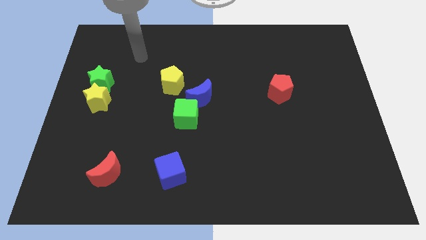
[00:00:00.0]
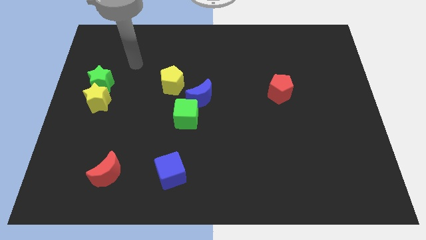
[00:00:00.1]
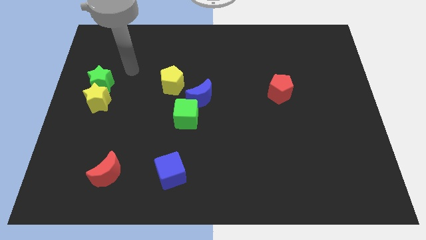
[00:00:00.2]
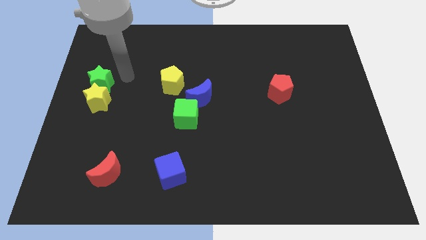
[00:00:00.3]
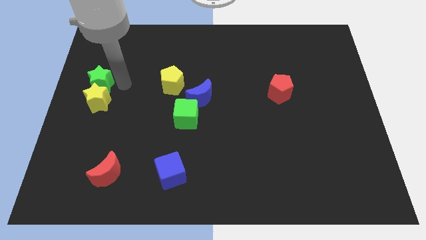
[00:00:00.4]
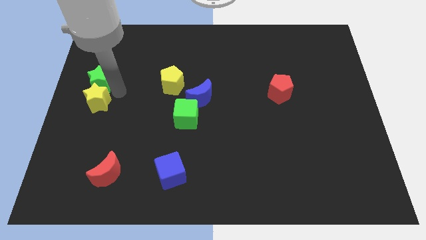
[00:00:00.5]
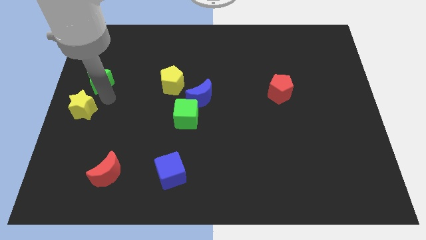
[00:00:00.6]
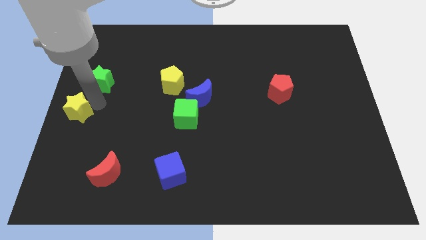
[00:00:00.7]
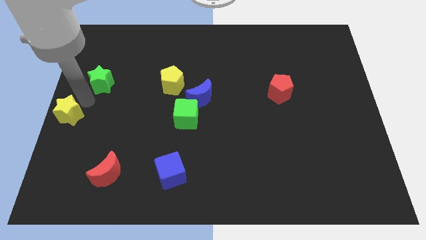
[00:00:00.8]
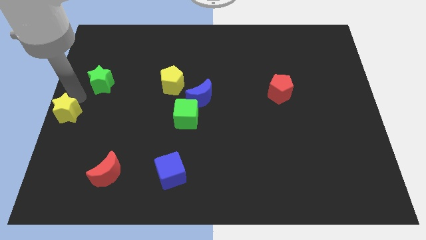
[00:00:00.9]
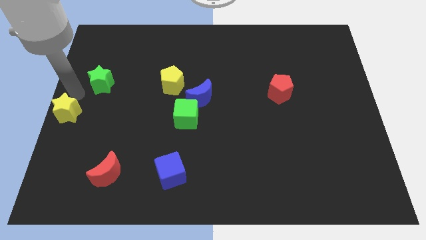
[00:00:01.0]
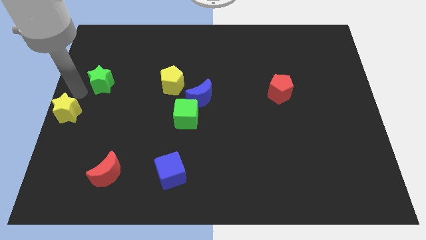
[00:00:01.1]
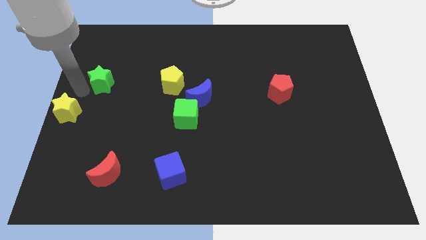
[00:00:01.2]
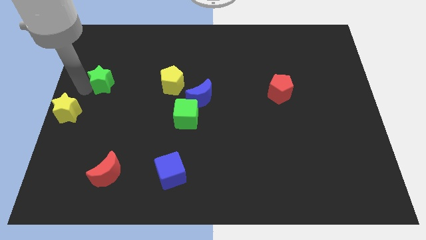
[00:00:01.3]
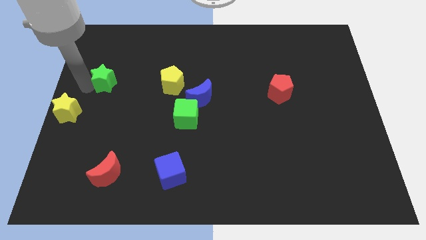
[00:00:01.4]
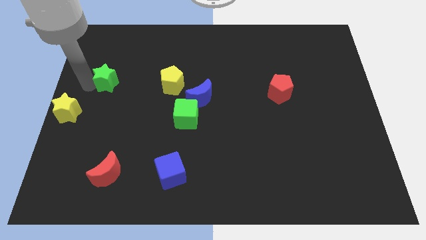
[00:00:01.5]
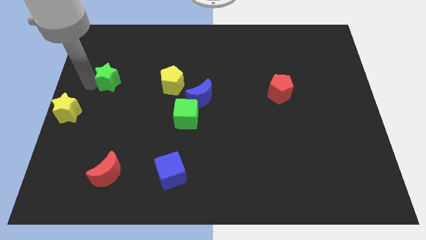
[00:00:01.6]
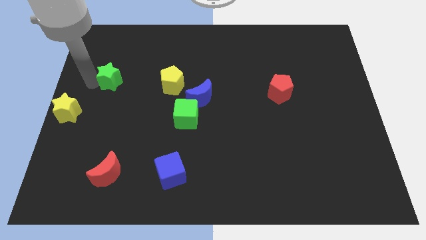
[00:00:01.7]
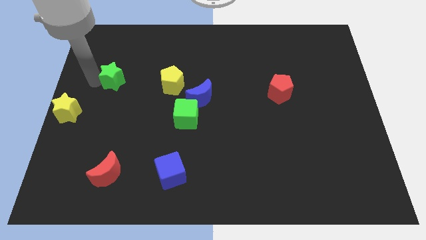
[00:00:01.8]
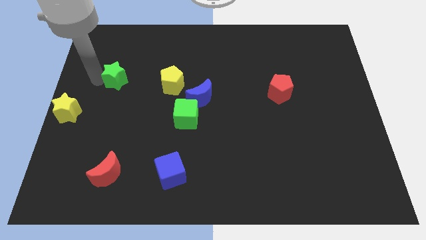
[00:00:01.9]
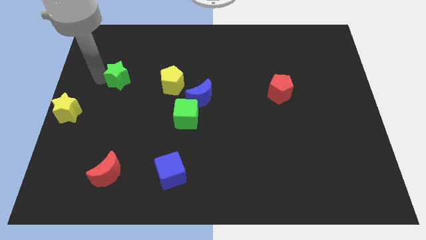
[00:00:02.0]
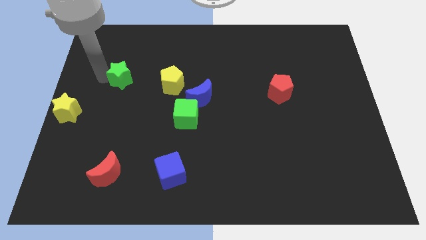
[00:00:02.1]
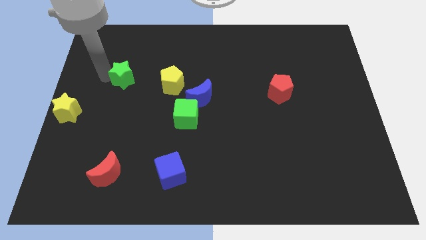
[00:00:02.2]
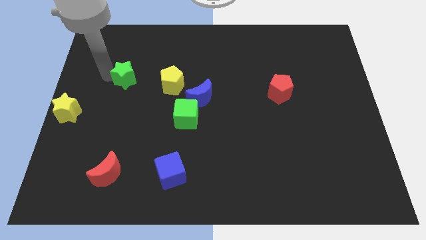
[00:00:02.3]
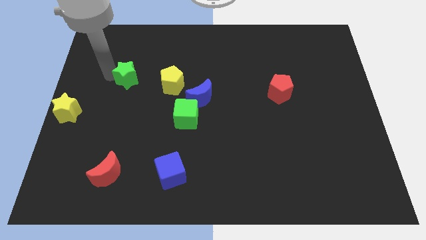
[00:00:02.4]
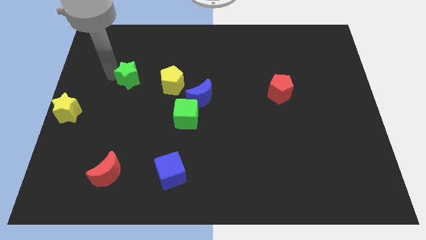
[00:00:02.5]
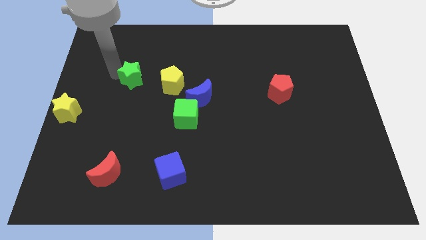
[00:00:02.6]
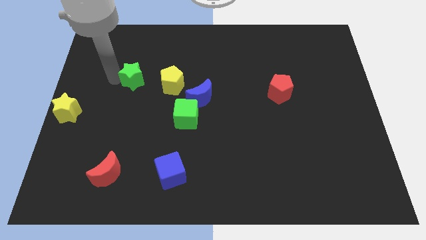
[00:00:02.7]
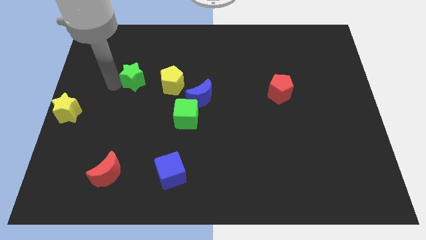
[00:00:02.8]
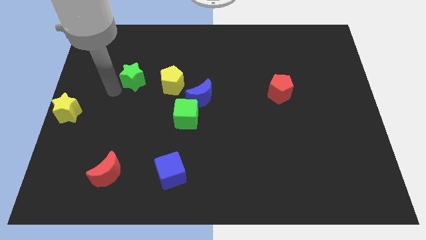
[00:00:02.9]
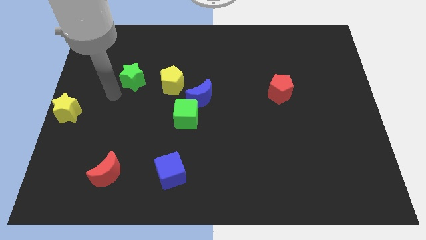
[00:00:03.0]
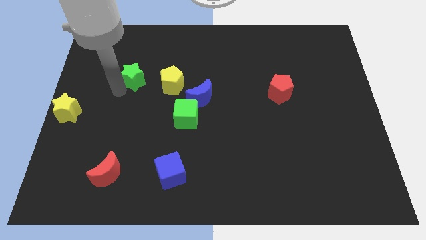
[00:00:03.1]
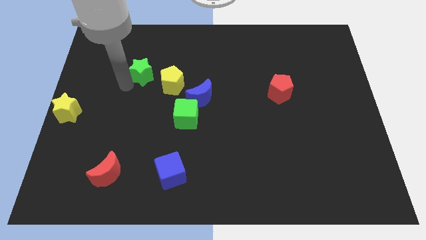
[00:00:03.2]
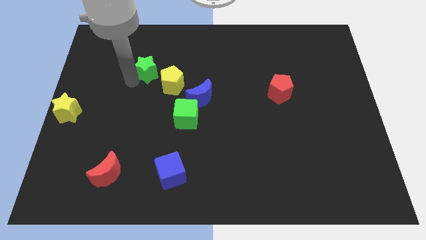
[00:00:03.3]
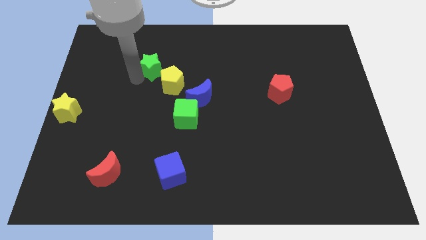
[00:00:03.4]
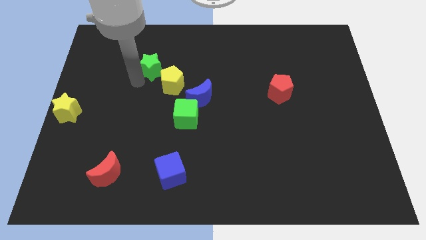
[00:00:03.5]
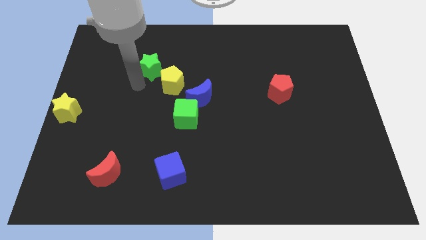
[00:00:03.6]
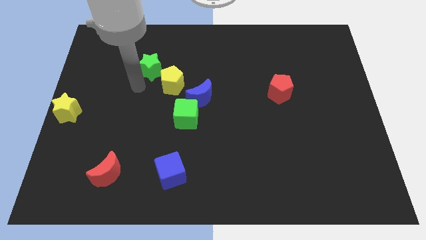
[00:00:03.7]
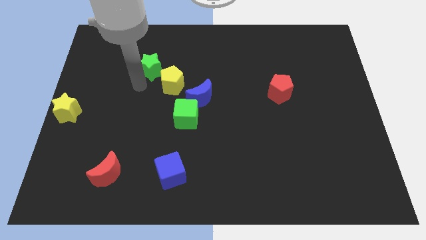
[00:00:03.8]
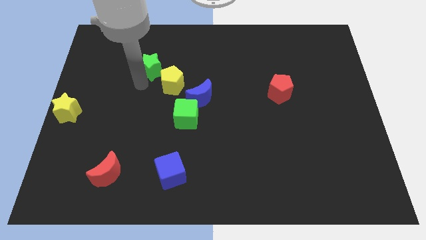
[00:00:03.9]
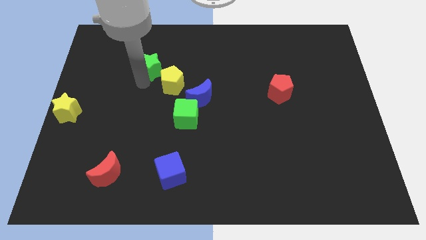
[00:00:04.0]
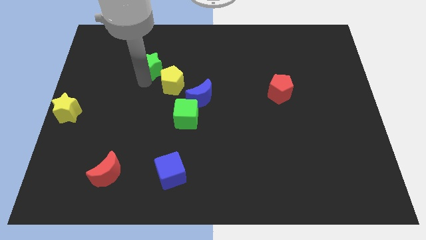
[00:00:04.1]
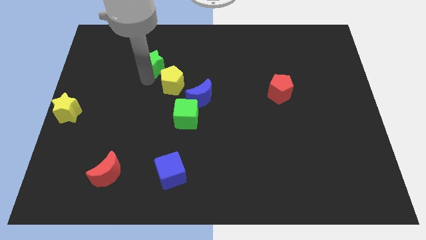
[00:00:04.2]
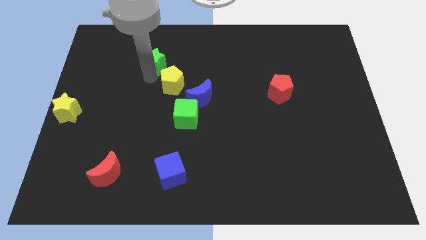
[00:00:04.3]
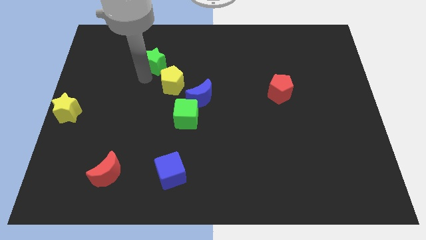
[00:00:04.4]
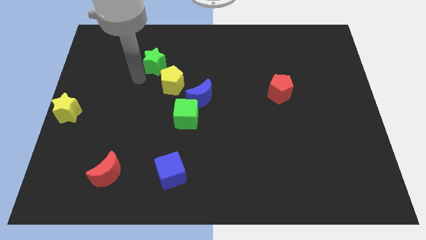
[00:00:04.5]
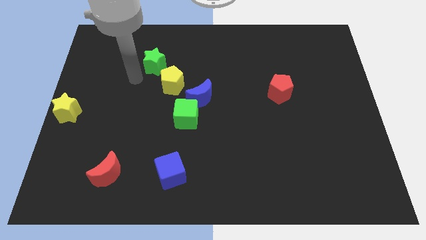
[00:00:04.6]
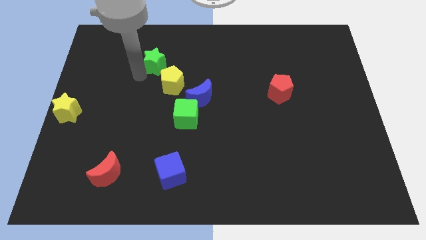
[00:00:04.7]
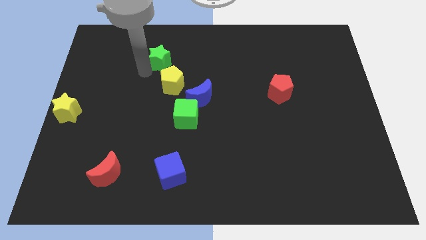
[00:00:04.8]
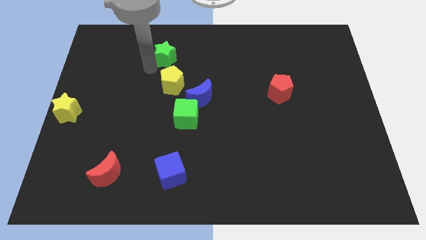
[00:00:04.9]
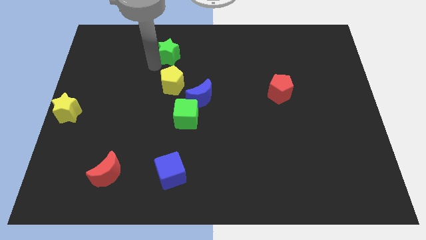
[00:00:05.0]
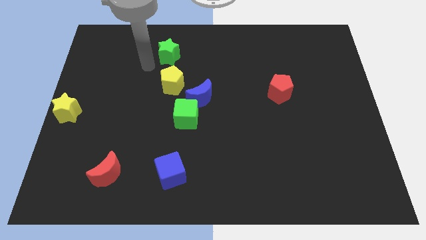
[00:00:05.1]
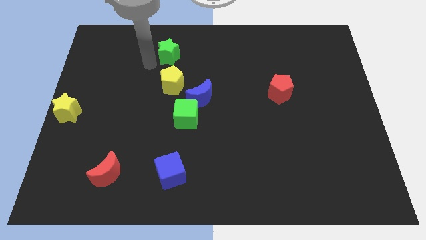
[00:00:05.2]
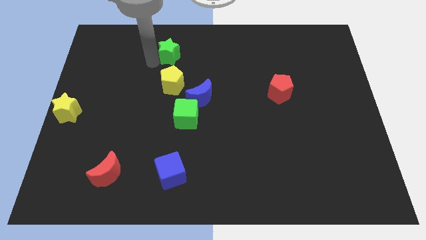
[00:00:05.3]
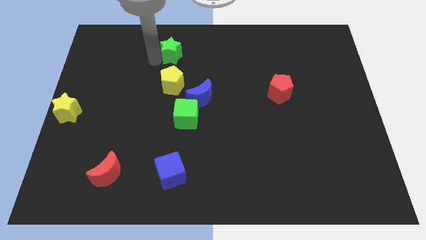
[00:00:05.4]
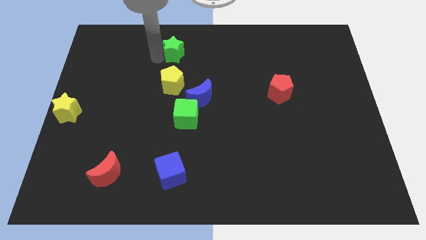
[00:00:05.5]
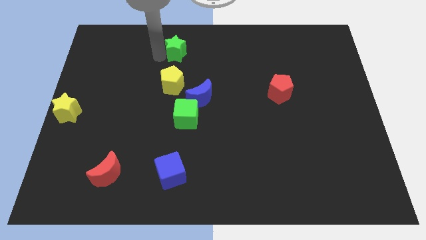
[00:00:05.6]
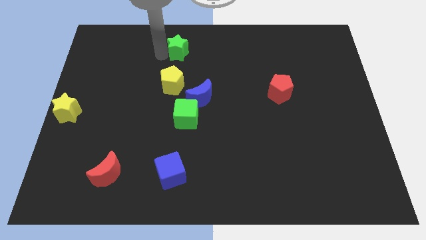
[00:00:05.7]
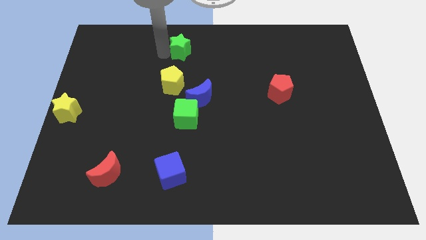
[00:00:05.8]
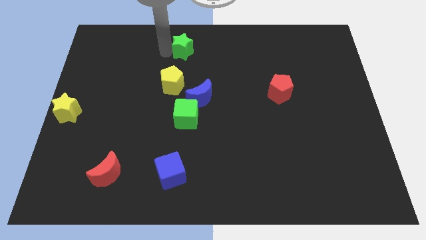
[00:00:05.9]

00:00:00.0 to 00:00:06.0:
push the green star to the towards your base
